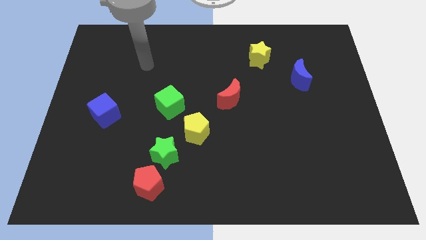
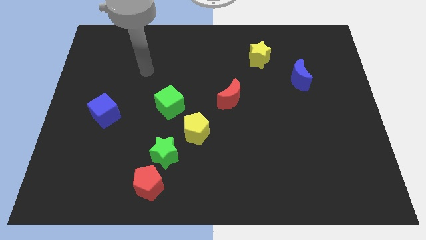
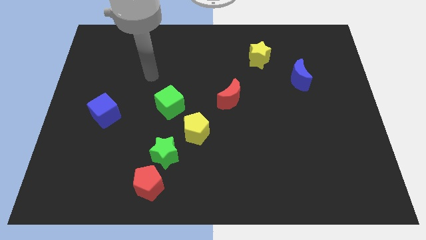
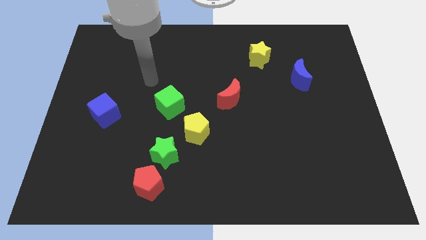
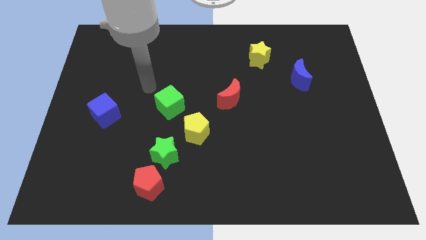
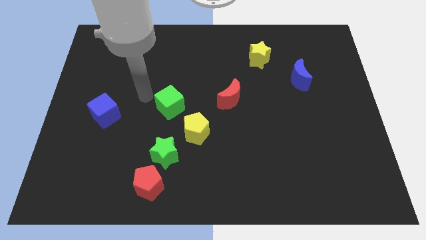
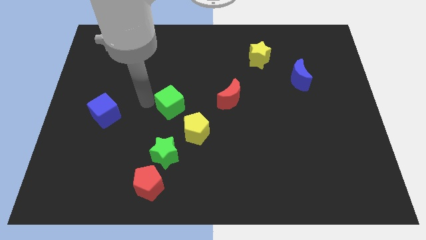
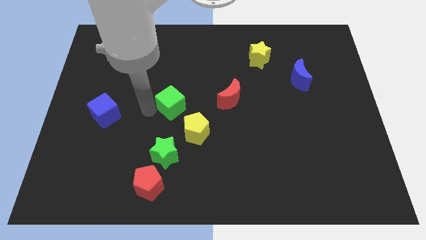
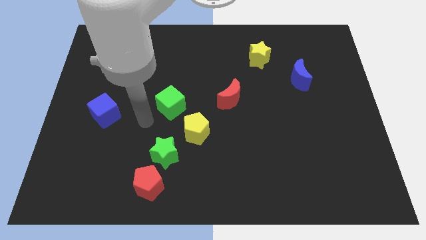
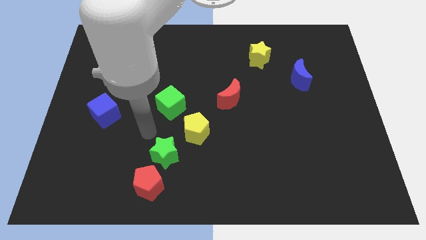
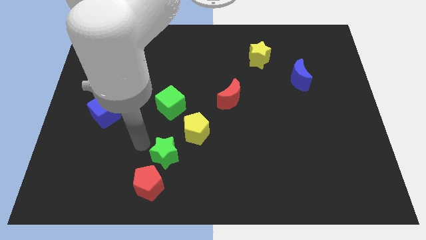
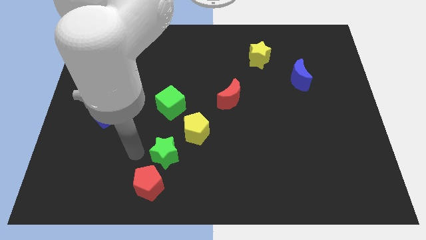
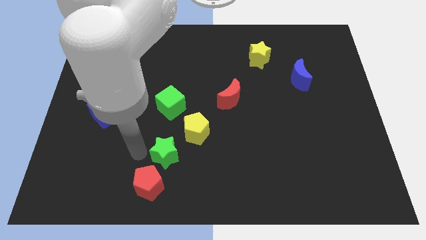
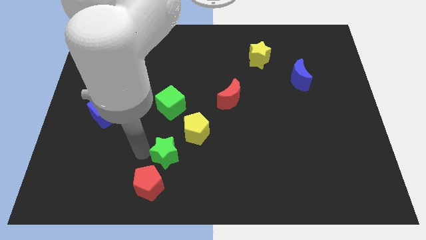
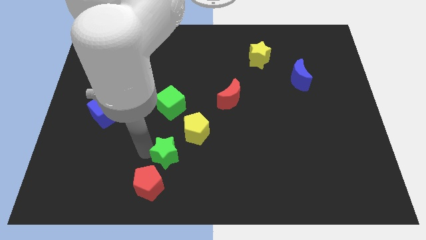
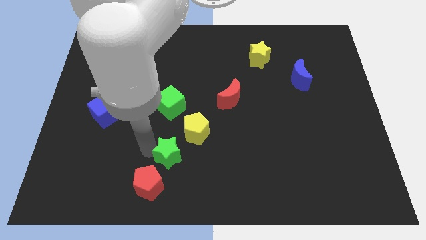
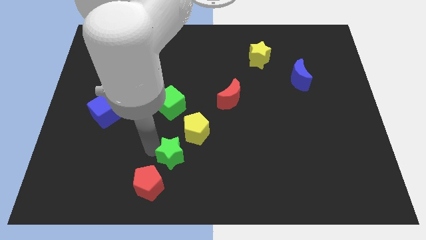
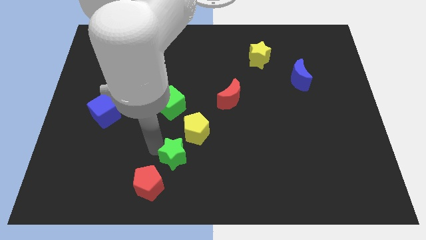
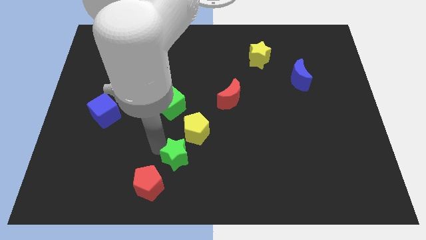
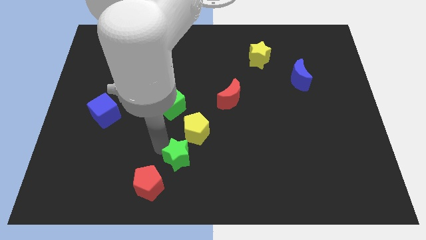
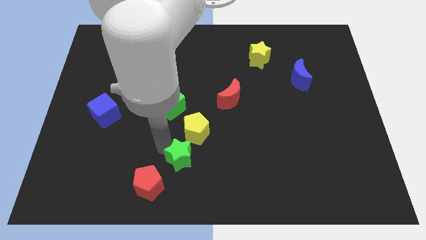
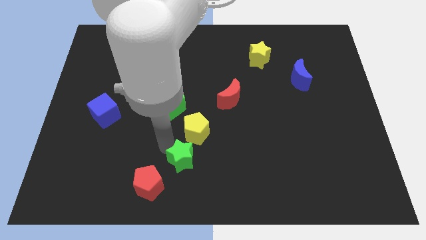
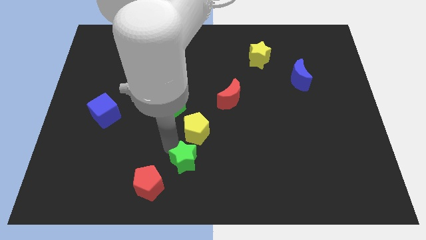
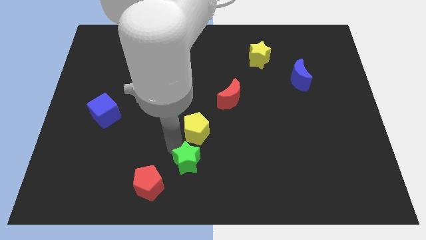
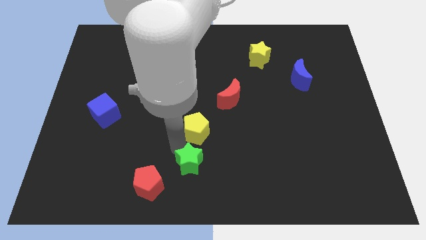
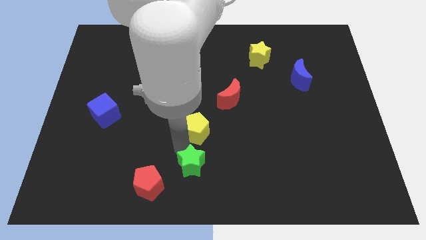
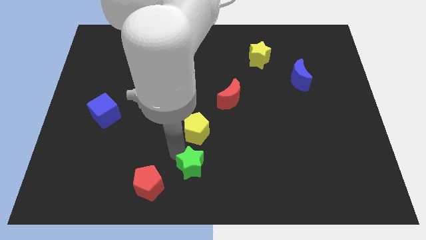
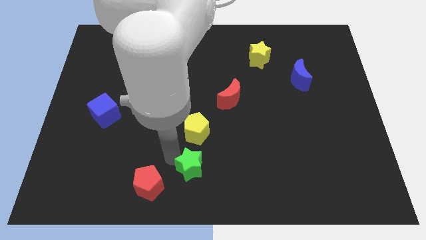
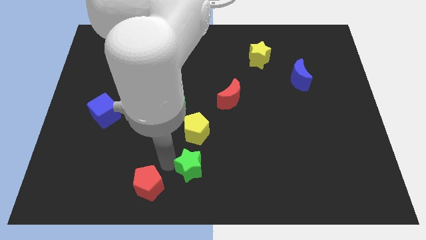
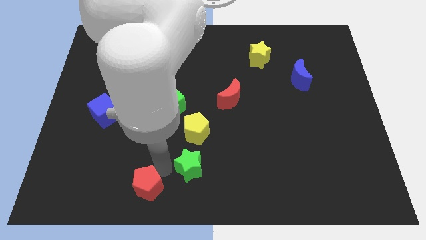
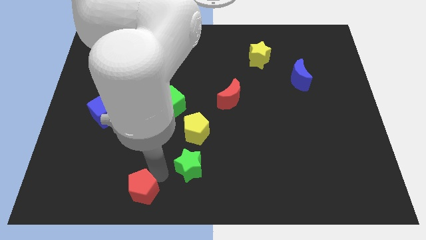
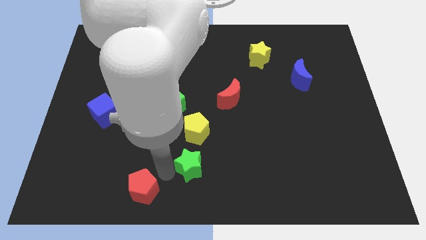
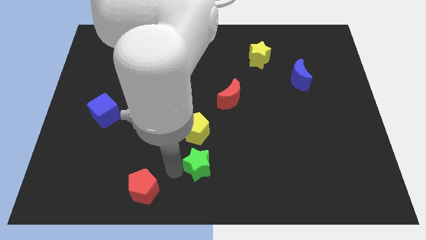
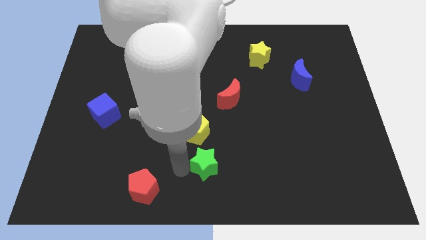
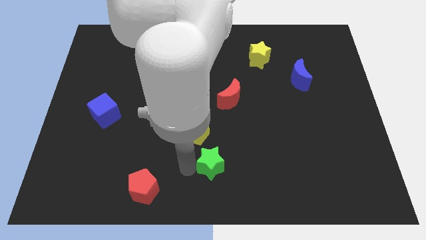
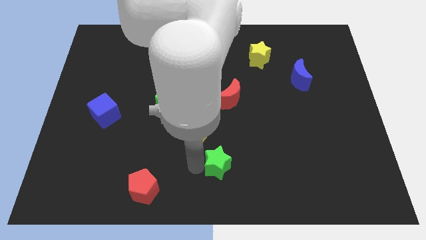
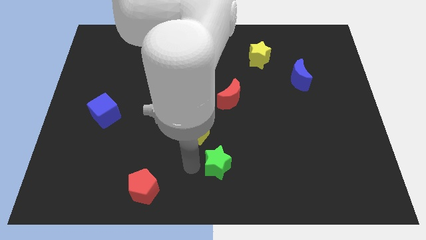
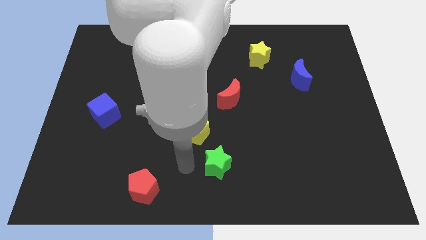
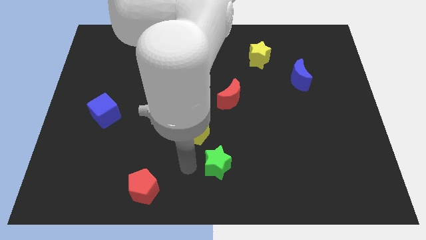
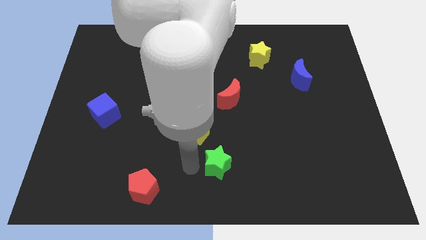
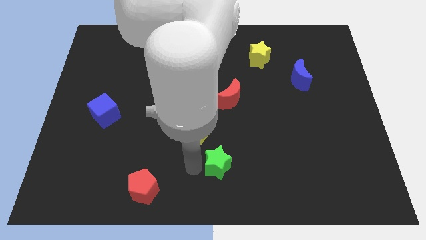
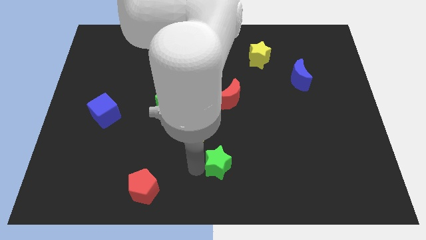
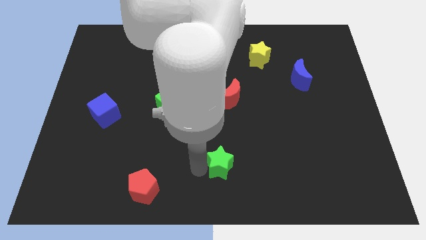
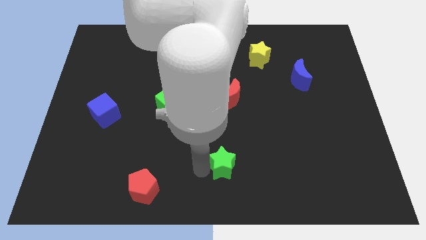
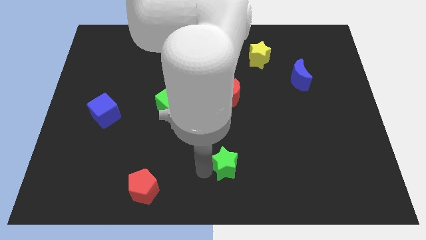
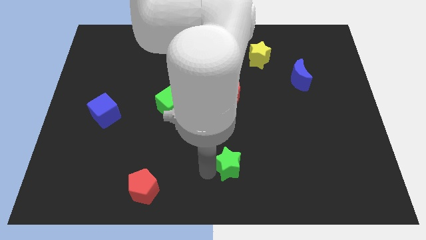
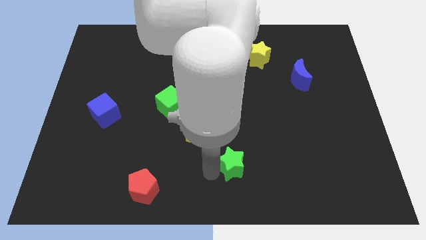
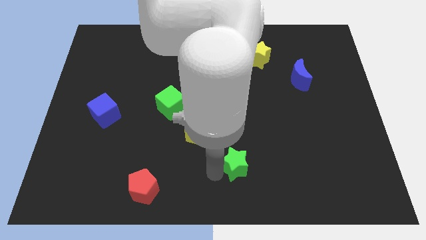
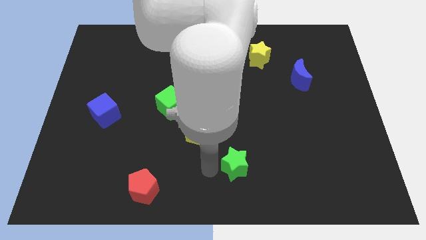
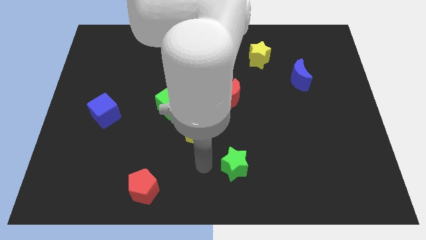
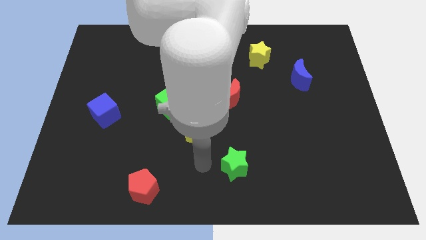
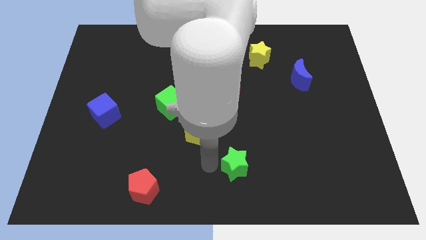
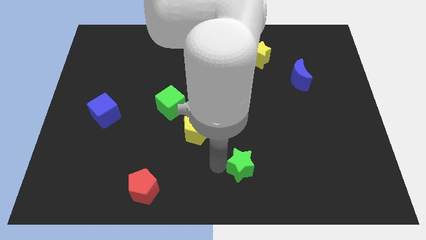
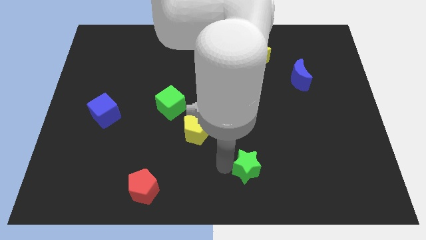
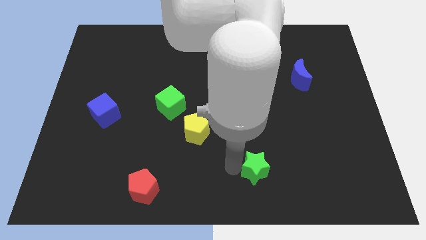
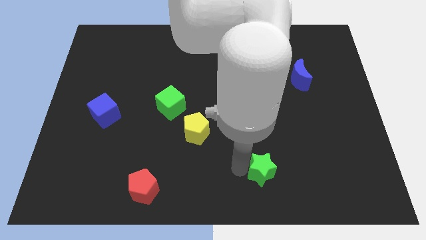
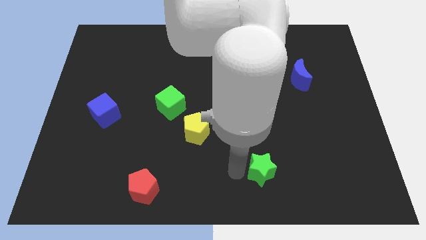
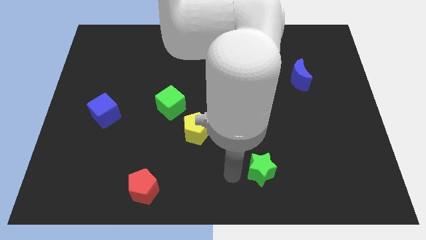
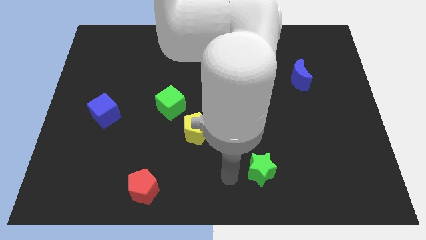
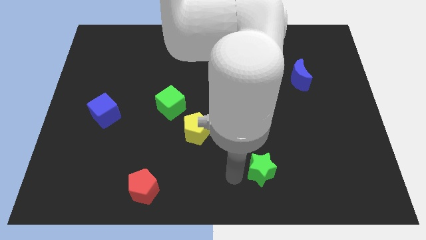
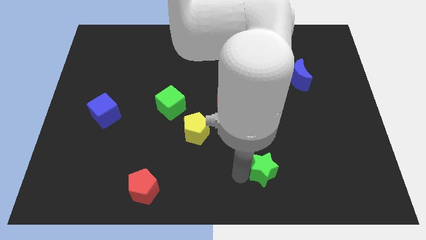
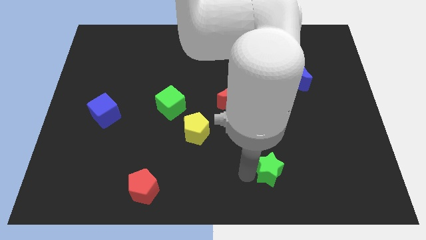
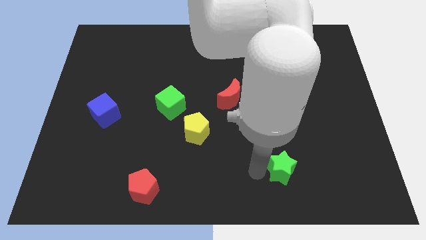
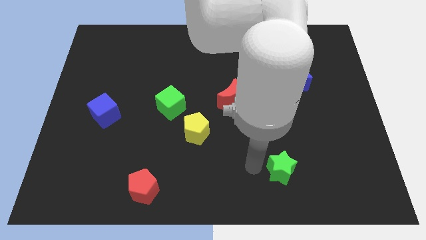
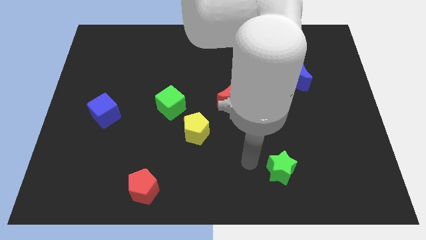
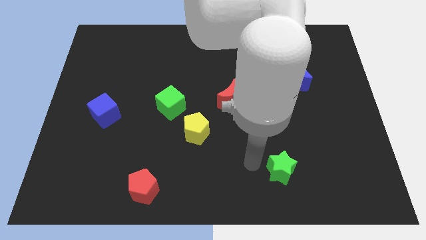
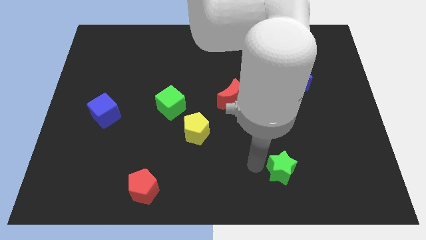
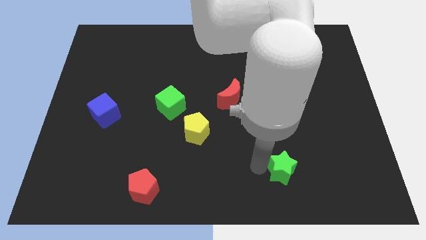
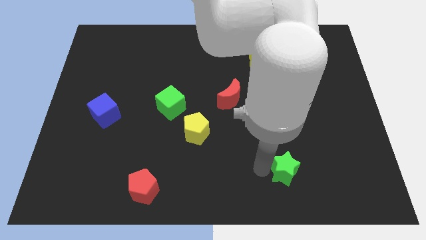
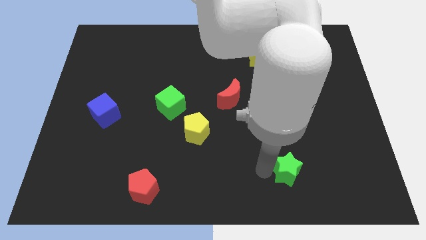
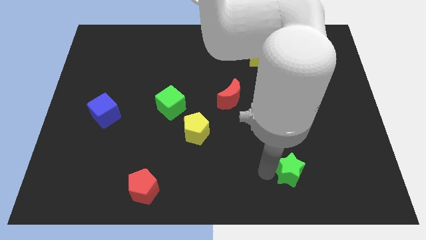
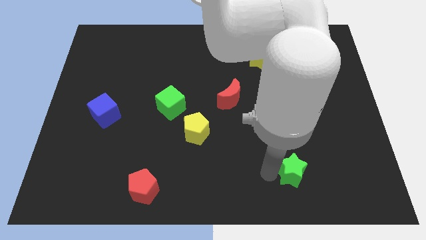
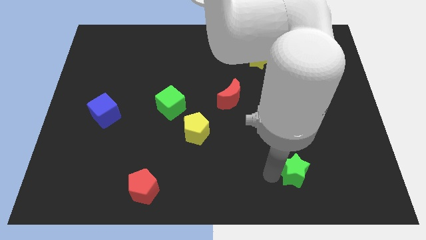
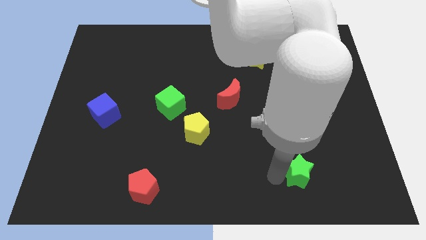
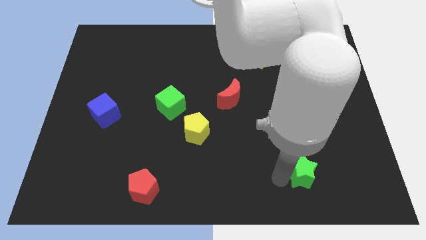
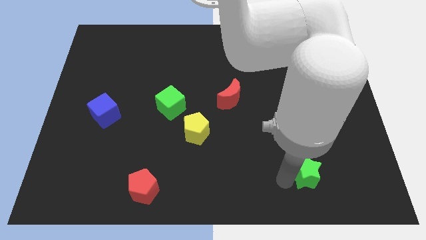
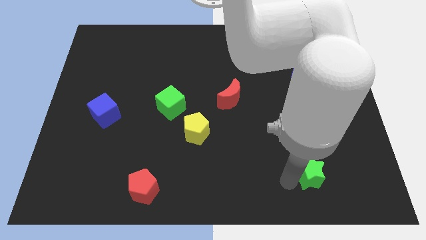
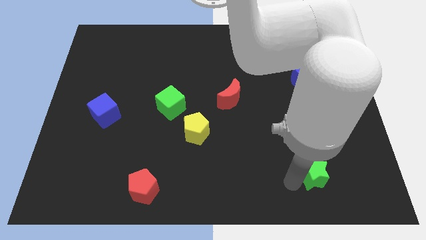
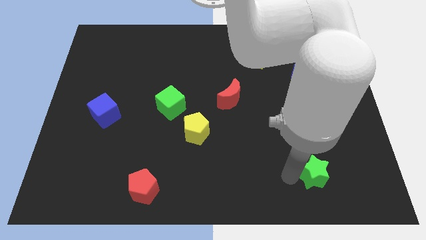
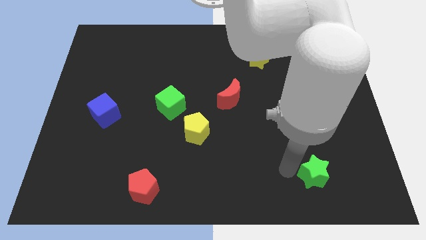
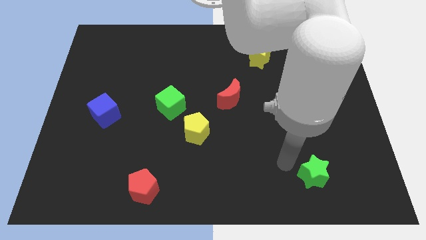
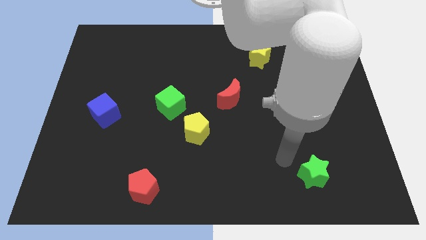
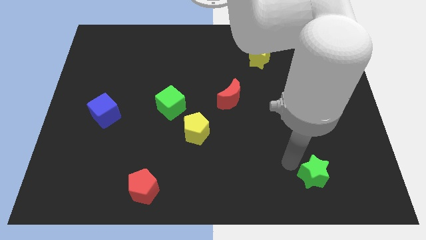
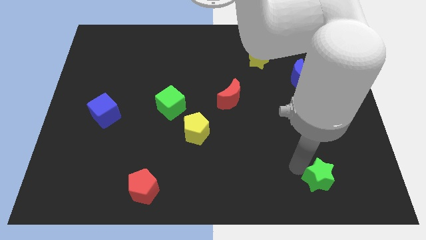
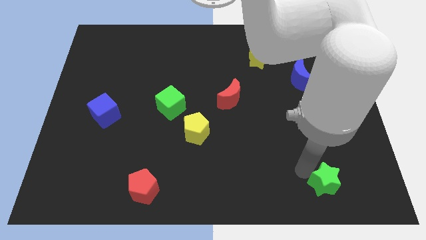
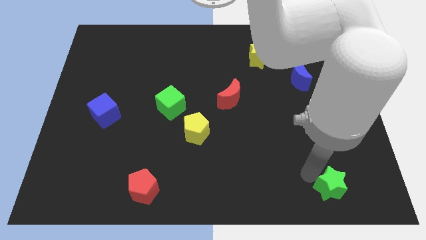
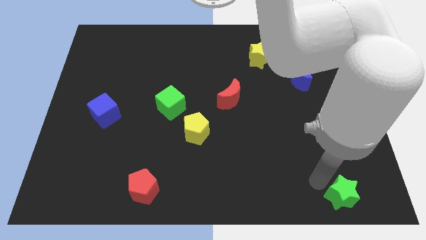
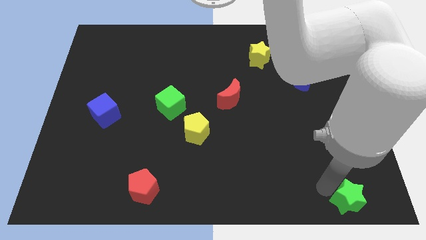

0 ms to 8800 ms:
put the green star to the bottom right
